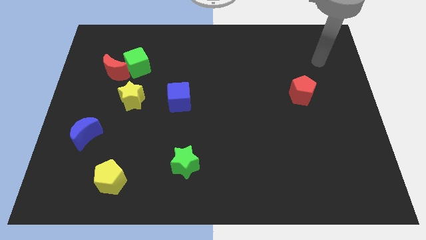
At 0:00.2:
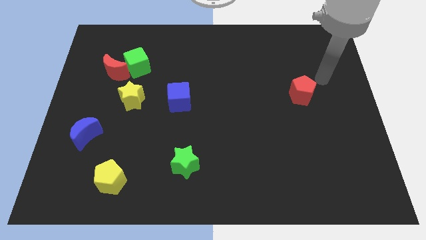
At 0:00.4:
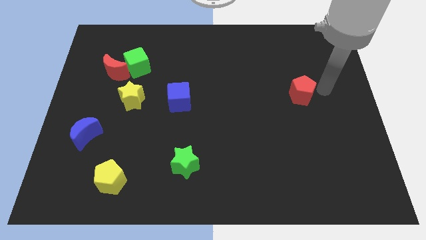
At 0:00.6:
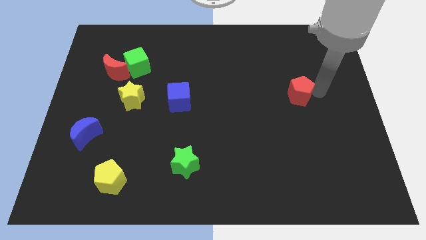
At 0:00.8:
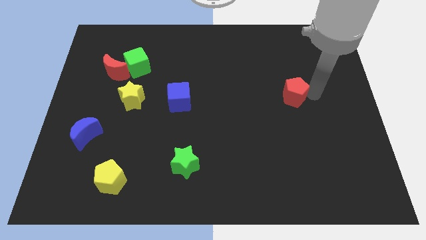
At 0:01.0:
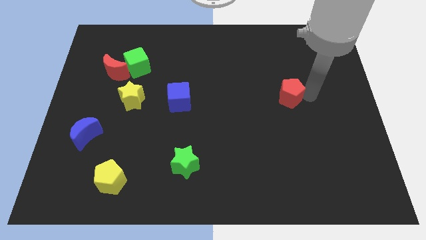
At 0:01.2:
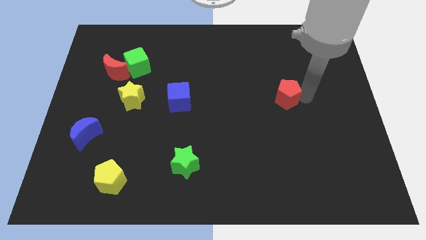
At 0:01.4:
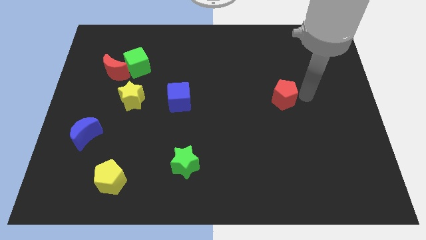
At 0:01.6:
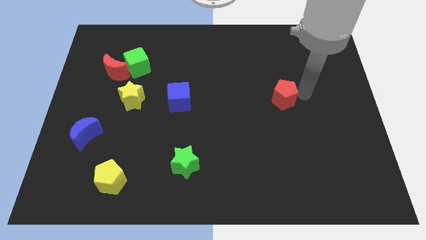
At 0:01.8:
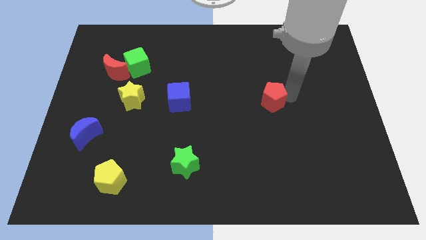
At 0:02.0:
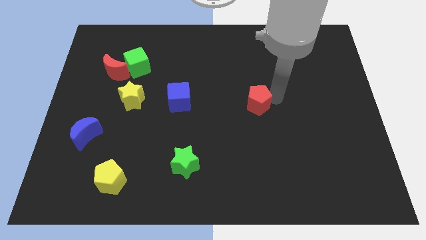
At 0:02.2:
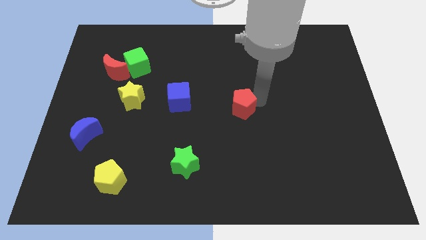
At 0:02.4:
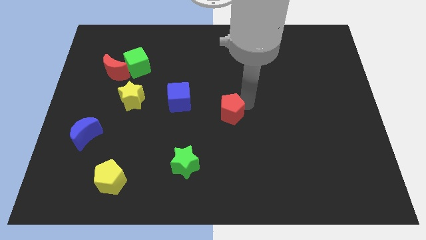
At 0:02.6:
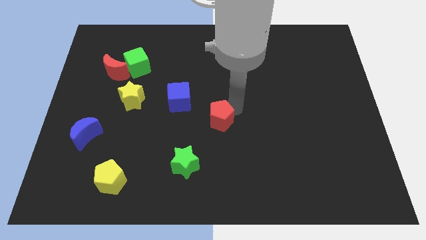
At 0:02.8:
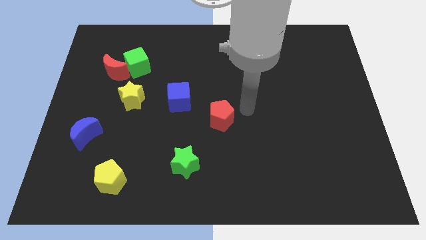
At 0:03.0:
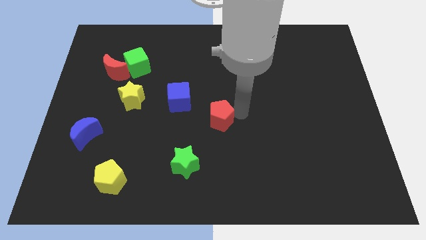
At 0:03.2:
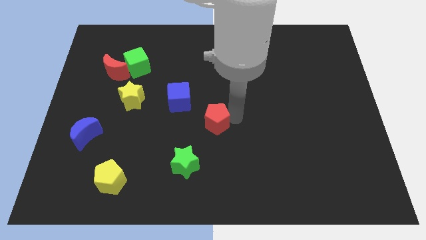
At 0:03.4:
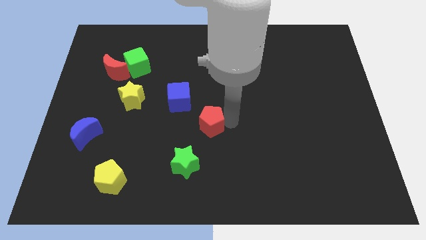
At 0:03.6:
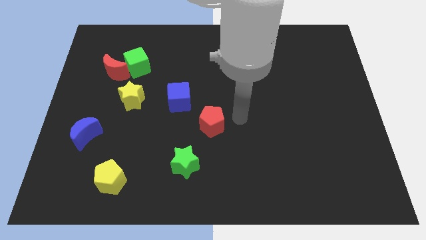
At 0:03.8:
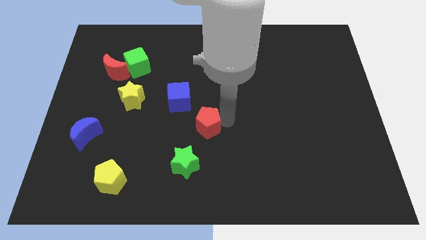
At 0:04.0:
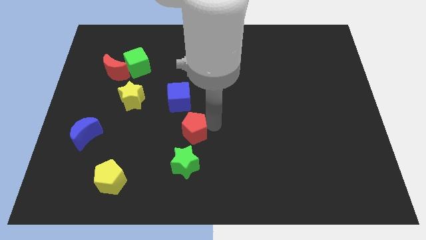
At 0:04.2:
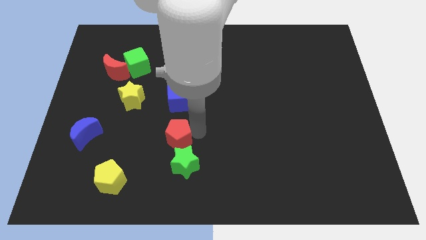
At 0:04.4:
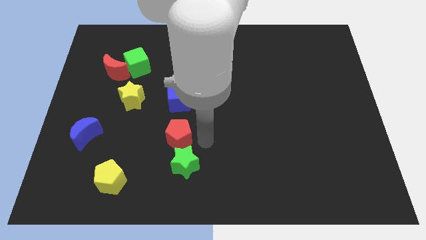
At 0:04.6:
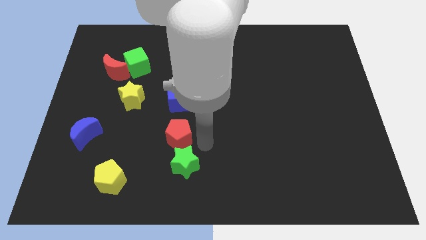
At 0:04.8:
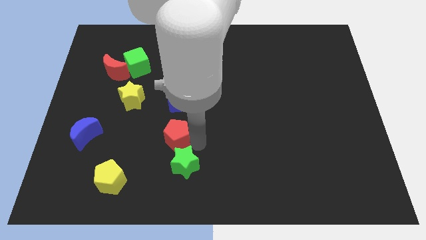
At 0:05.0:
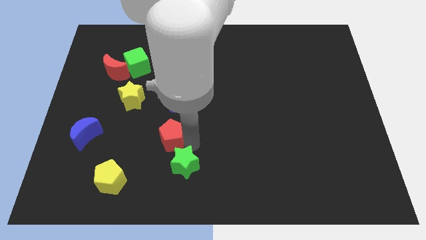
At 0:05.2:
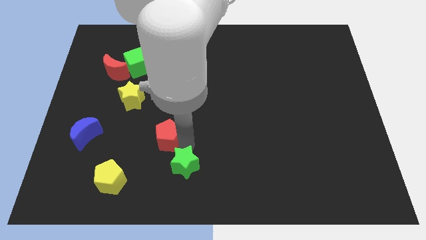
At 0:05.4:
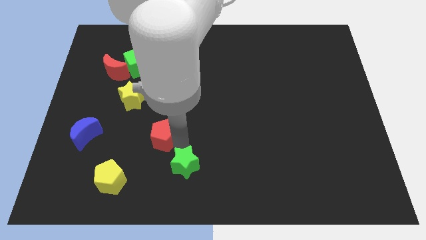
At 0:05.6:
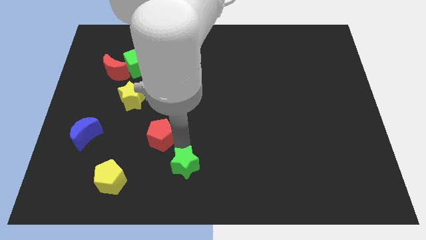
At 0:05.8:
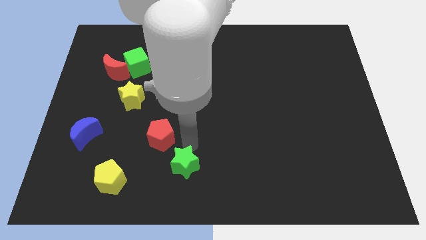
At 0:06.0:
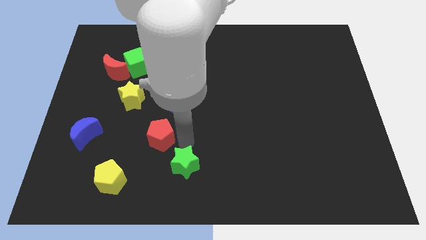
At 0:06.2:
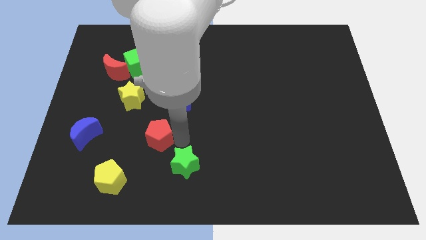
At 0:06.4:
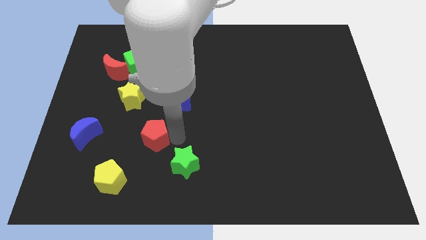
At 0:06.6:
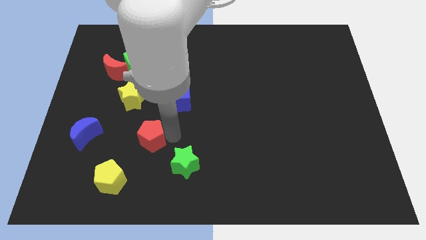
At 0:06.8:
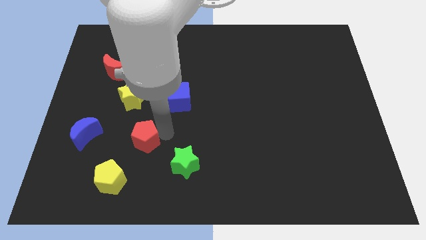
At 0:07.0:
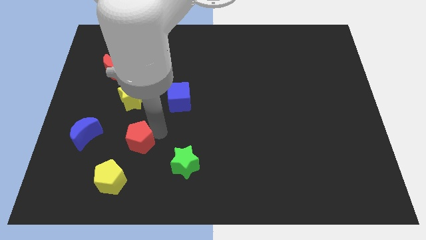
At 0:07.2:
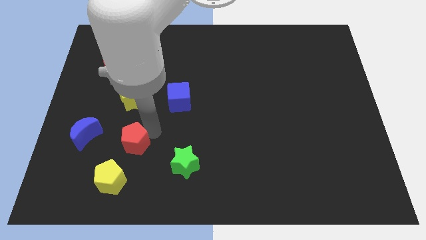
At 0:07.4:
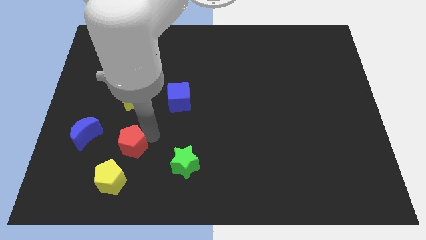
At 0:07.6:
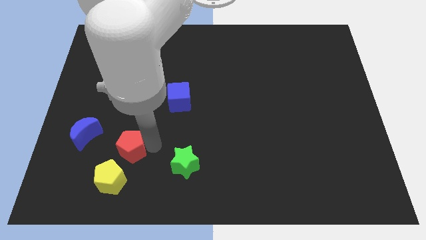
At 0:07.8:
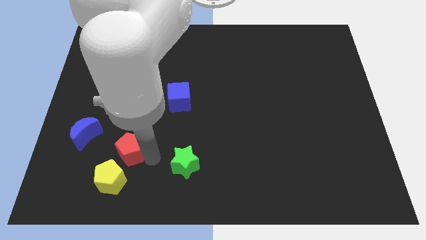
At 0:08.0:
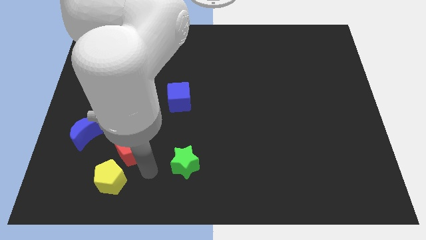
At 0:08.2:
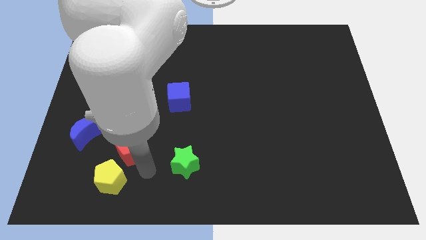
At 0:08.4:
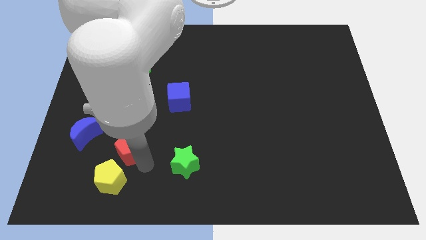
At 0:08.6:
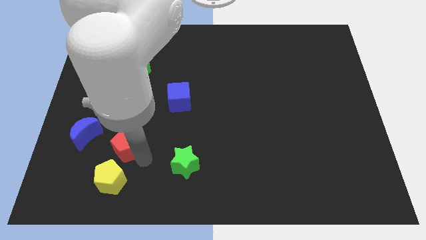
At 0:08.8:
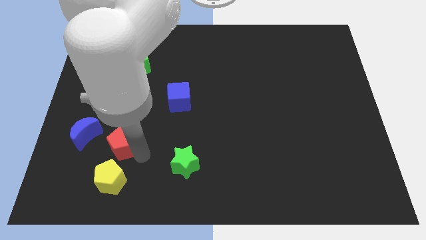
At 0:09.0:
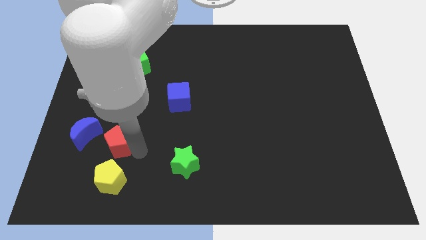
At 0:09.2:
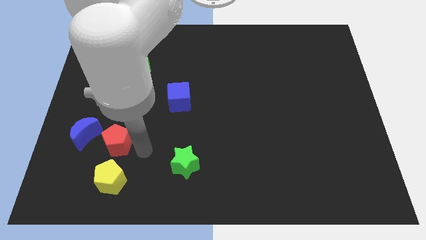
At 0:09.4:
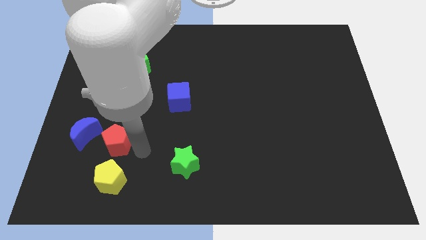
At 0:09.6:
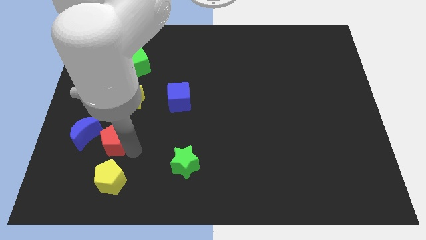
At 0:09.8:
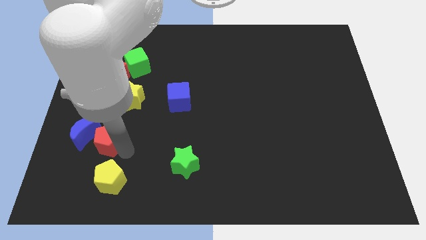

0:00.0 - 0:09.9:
slide the red pentagon close to the blue moon

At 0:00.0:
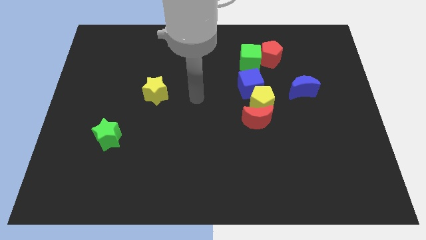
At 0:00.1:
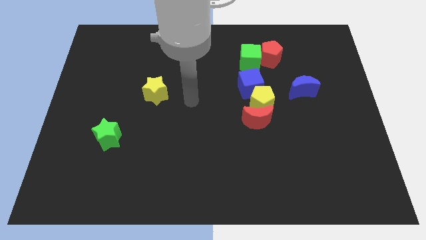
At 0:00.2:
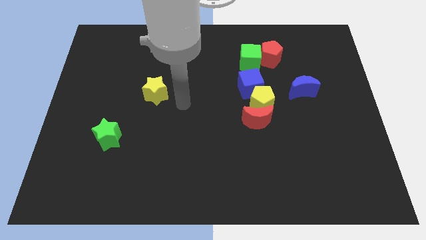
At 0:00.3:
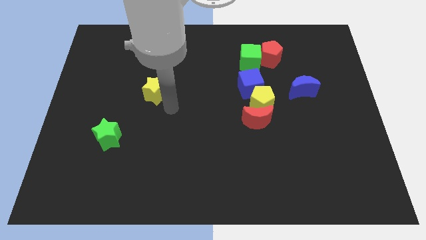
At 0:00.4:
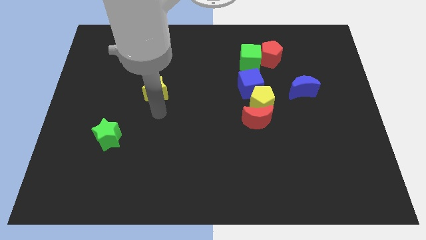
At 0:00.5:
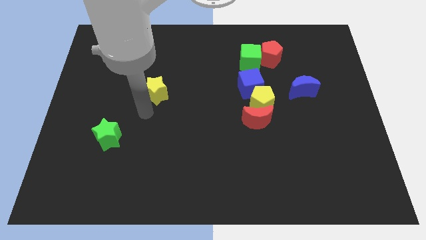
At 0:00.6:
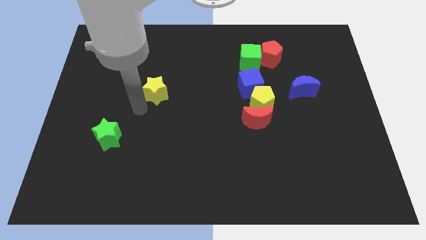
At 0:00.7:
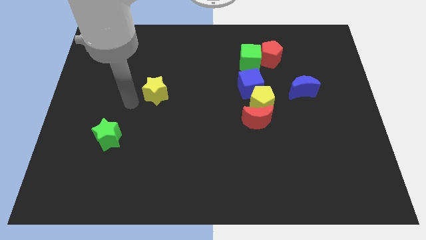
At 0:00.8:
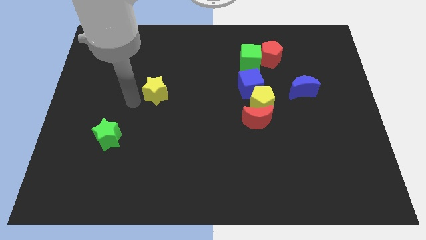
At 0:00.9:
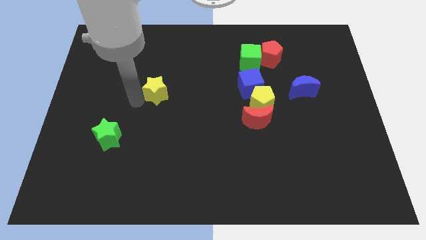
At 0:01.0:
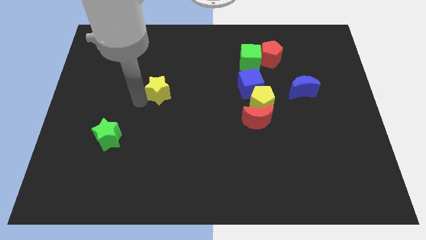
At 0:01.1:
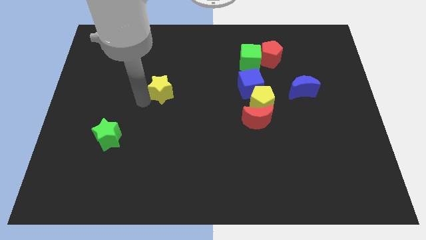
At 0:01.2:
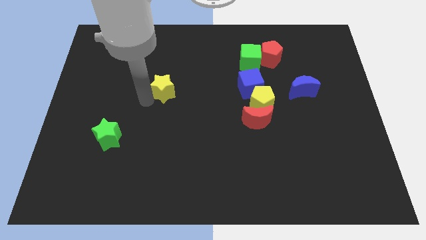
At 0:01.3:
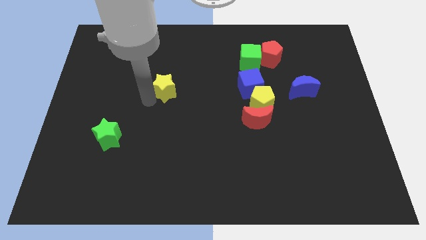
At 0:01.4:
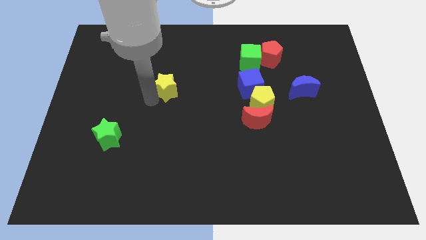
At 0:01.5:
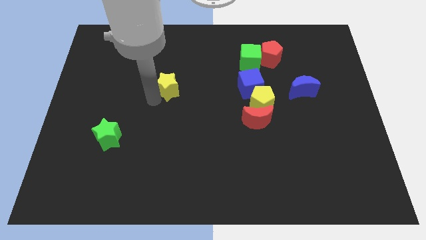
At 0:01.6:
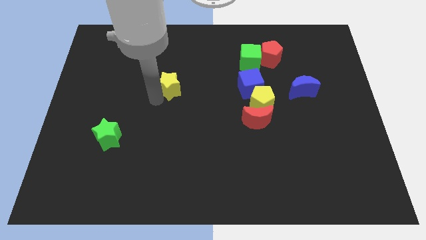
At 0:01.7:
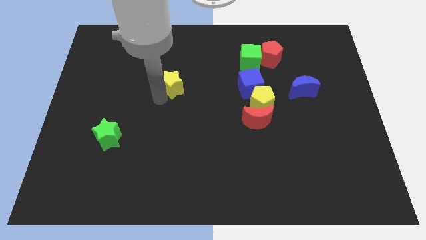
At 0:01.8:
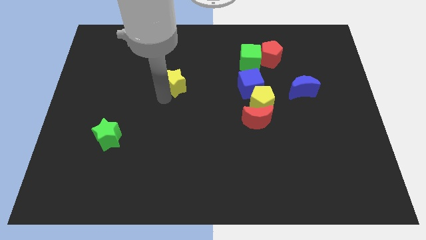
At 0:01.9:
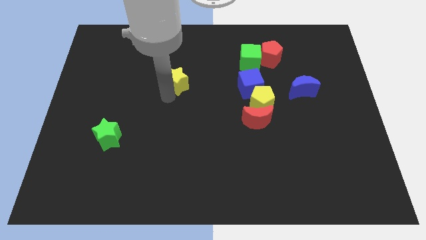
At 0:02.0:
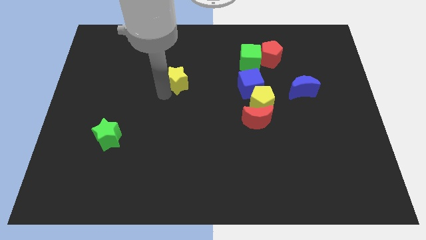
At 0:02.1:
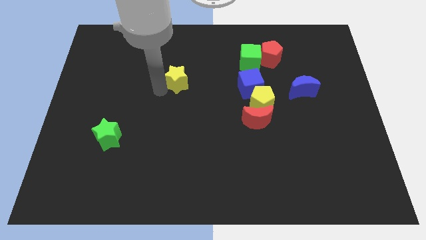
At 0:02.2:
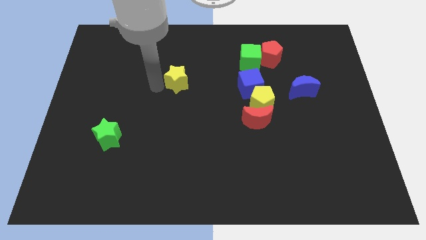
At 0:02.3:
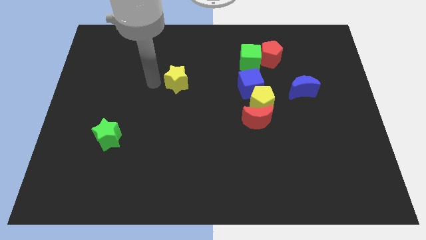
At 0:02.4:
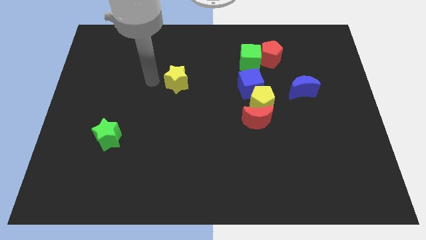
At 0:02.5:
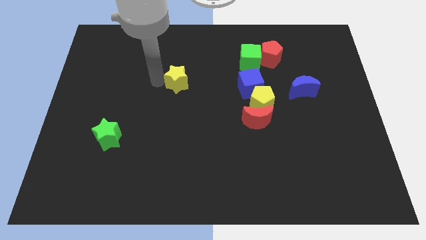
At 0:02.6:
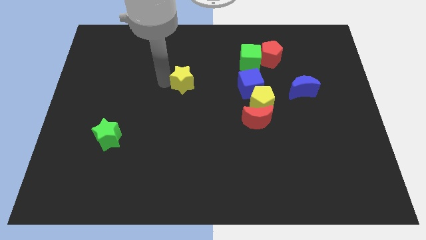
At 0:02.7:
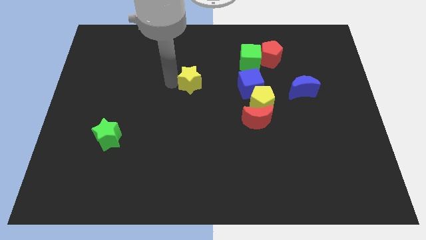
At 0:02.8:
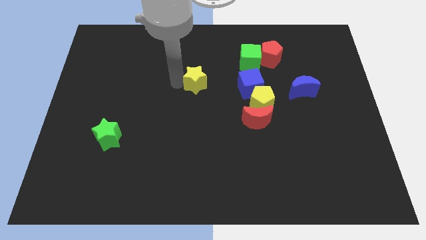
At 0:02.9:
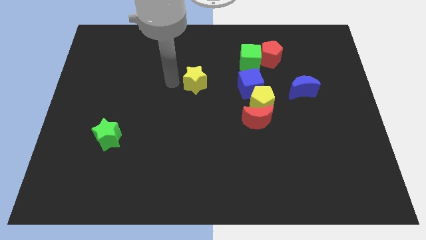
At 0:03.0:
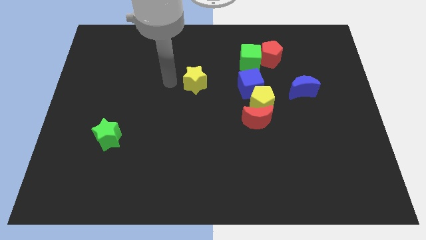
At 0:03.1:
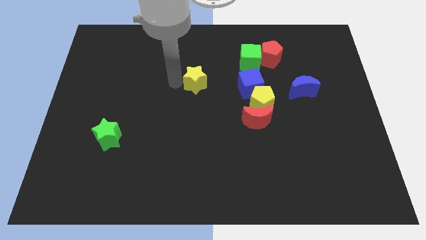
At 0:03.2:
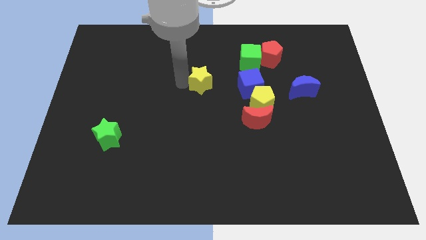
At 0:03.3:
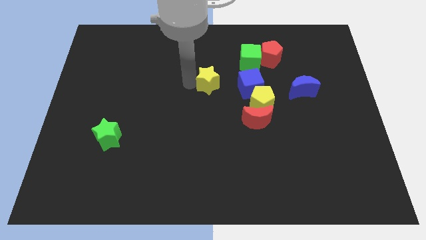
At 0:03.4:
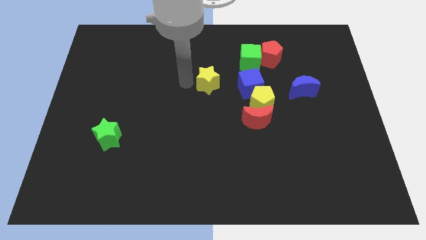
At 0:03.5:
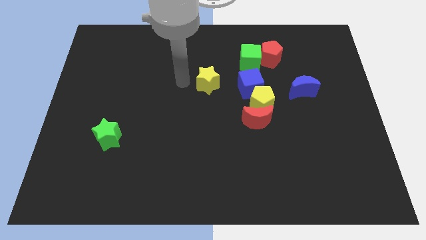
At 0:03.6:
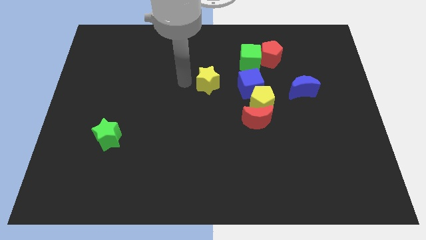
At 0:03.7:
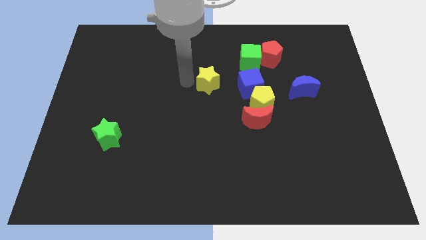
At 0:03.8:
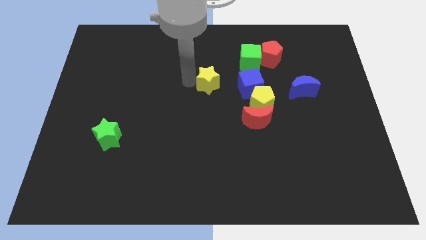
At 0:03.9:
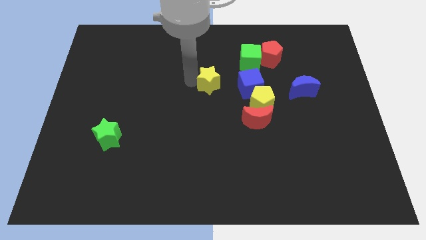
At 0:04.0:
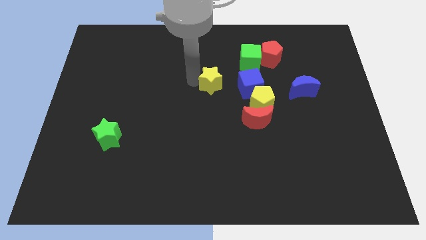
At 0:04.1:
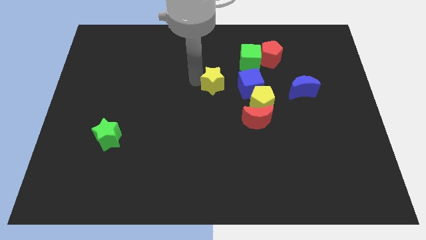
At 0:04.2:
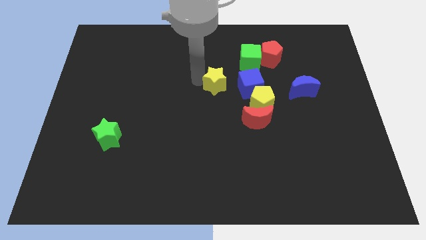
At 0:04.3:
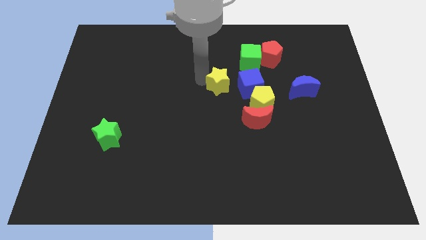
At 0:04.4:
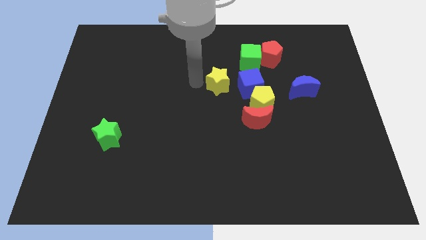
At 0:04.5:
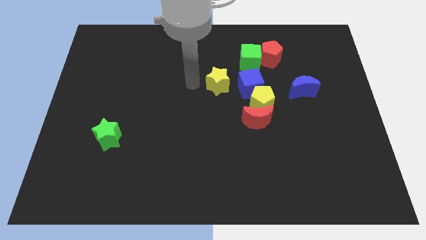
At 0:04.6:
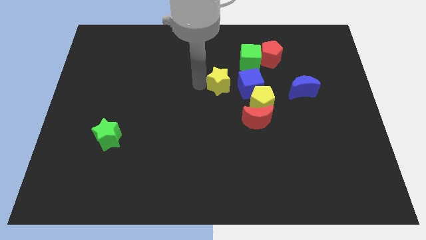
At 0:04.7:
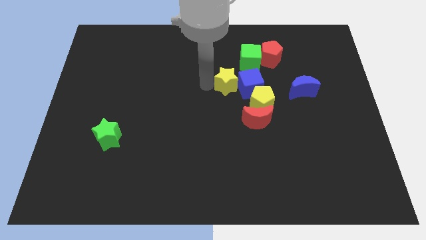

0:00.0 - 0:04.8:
put the yellow star close to the blue cube
